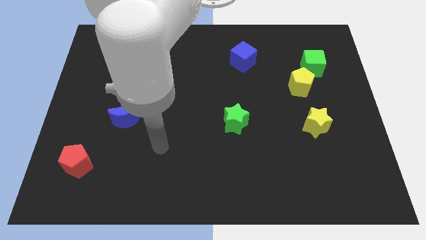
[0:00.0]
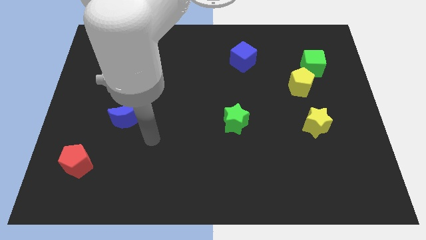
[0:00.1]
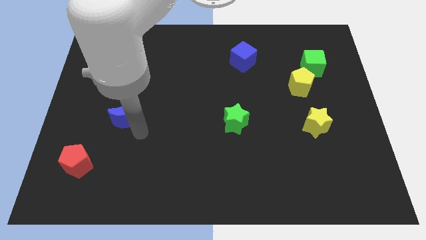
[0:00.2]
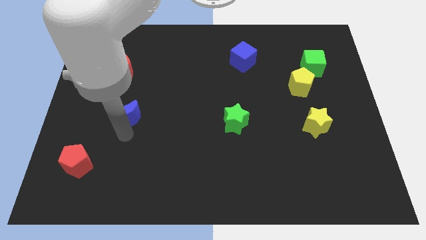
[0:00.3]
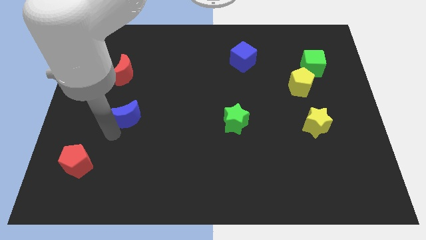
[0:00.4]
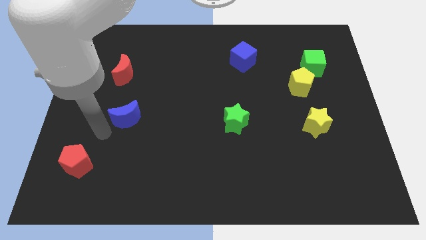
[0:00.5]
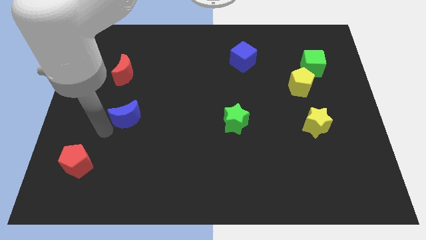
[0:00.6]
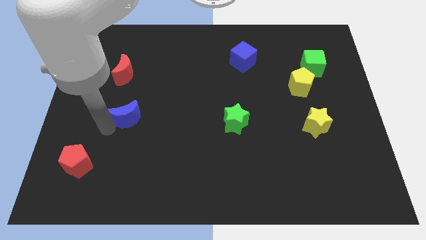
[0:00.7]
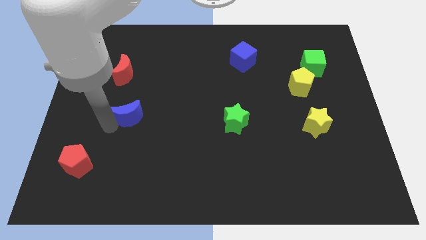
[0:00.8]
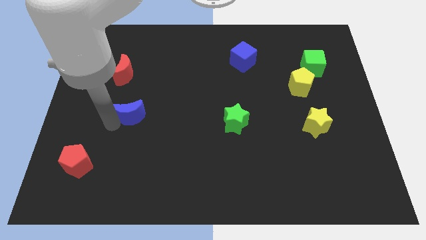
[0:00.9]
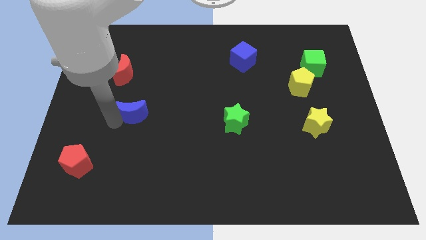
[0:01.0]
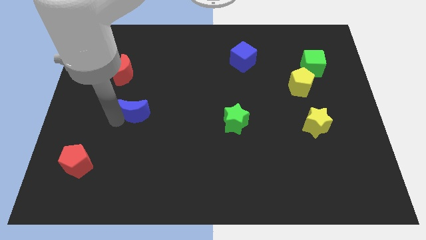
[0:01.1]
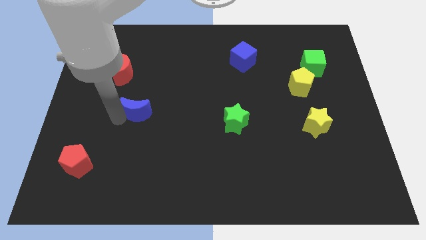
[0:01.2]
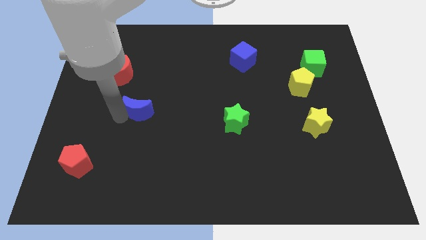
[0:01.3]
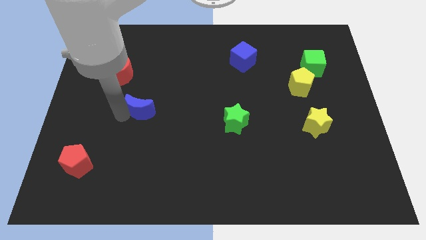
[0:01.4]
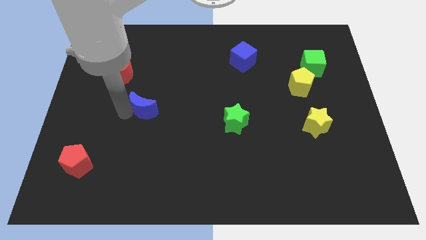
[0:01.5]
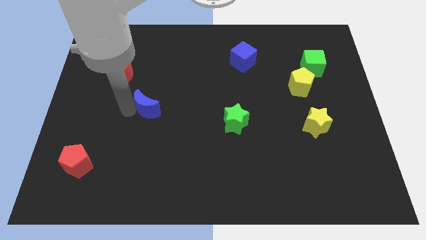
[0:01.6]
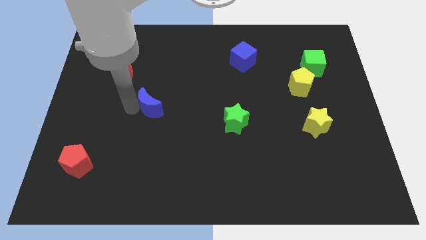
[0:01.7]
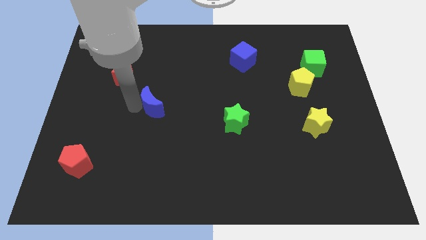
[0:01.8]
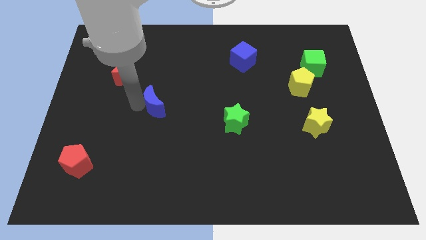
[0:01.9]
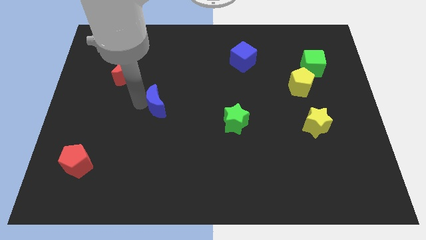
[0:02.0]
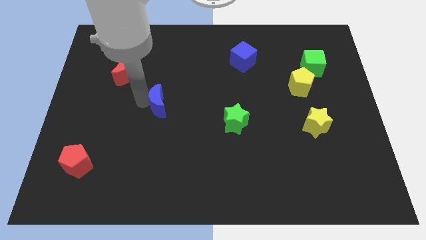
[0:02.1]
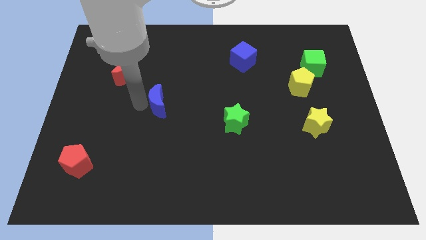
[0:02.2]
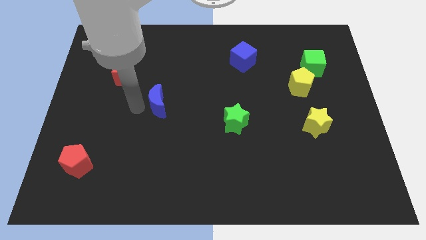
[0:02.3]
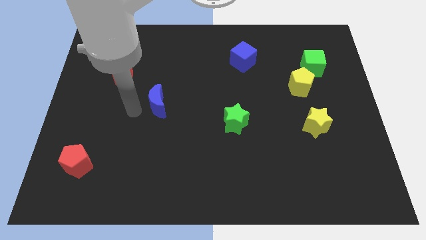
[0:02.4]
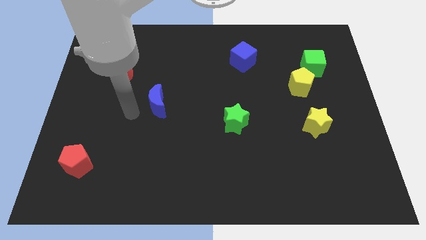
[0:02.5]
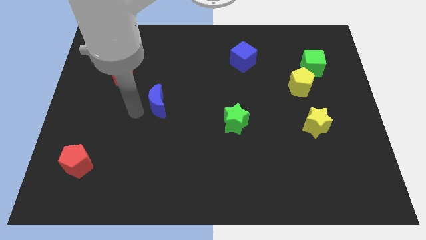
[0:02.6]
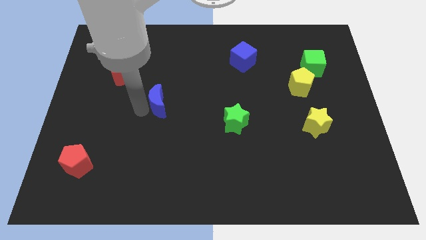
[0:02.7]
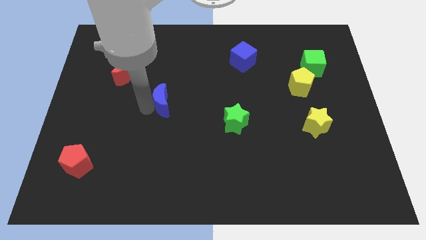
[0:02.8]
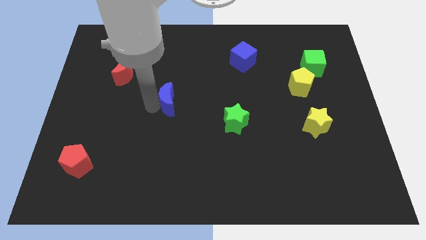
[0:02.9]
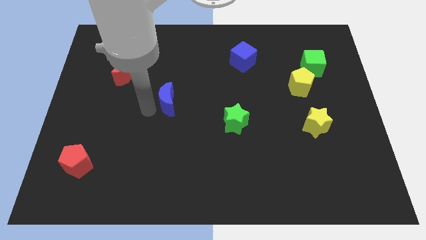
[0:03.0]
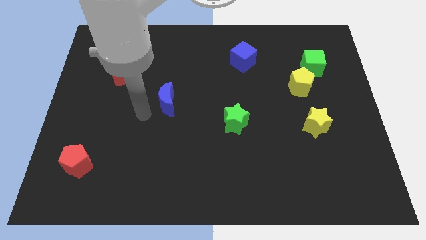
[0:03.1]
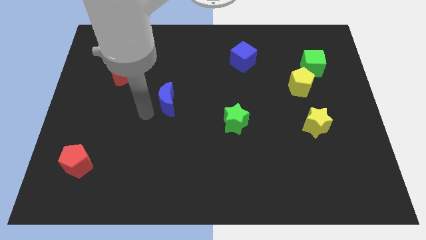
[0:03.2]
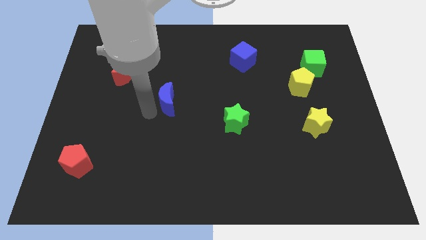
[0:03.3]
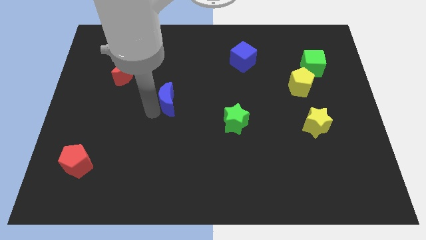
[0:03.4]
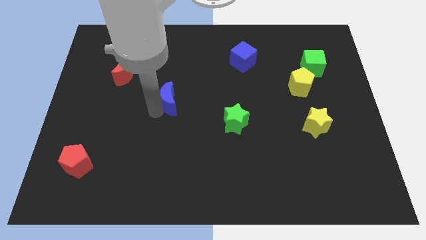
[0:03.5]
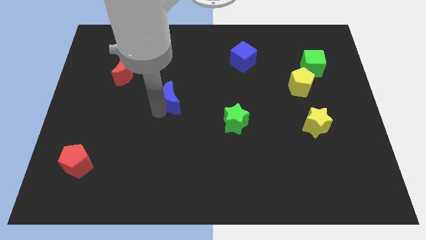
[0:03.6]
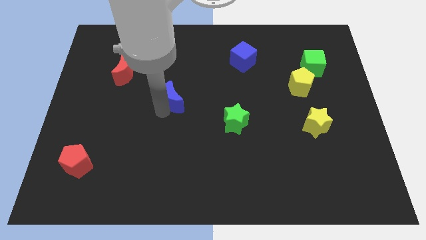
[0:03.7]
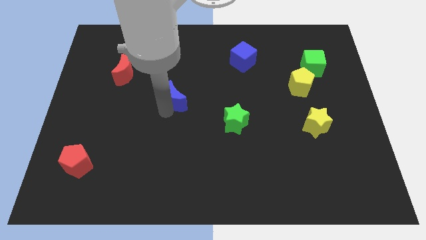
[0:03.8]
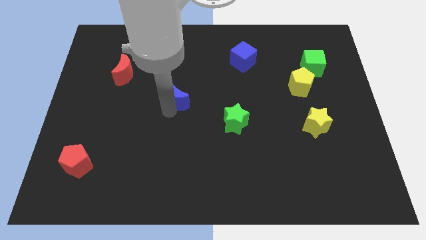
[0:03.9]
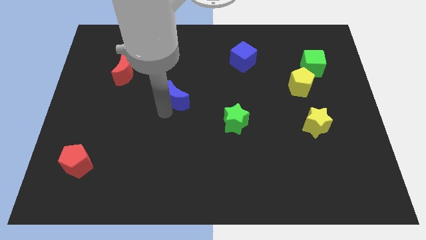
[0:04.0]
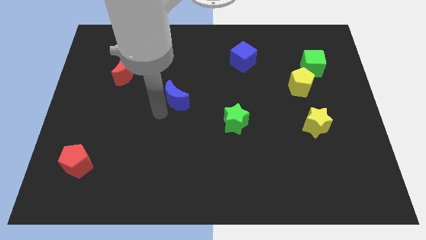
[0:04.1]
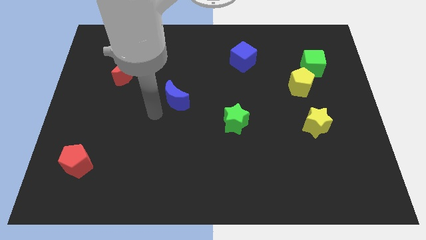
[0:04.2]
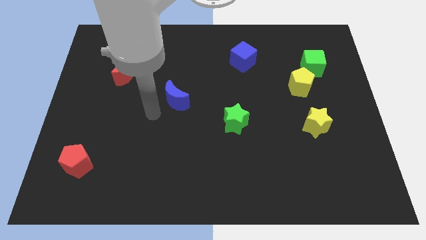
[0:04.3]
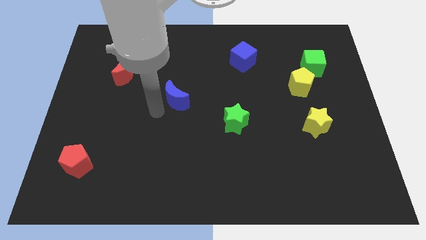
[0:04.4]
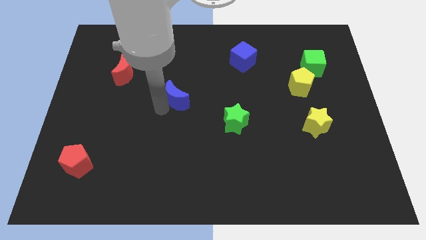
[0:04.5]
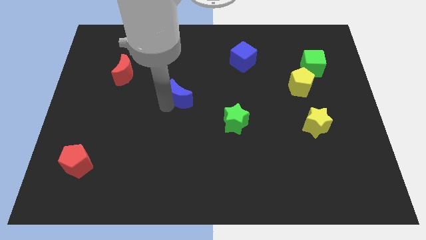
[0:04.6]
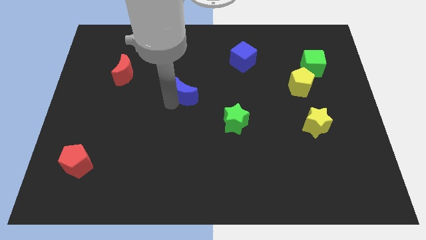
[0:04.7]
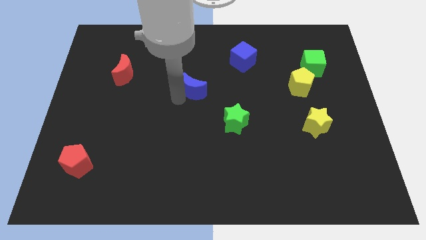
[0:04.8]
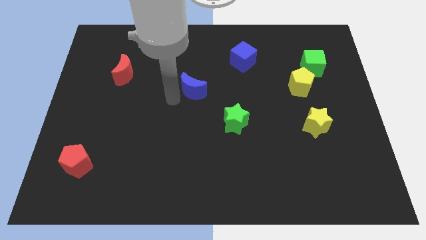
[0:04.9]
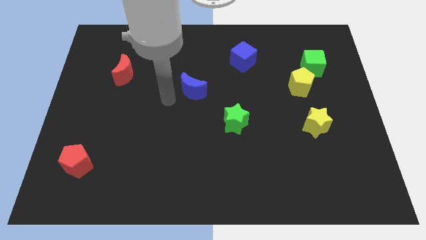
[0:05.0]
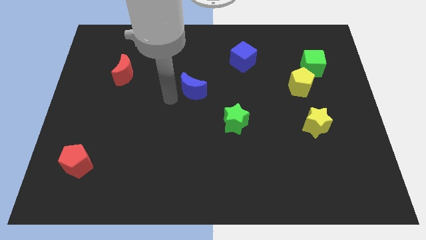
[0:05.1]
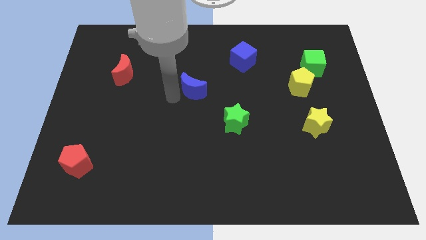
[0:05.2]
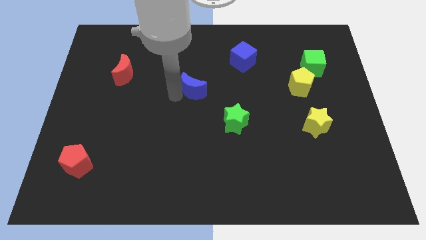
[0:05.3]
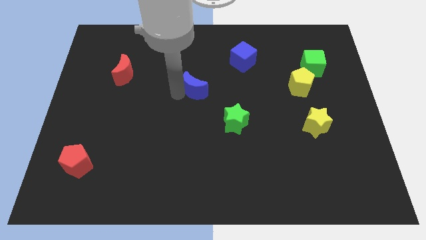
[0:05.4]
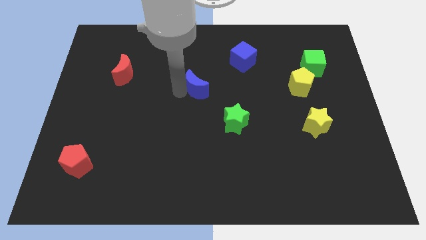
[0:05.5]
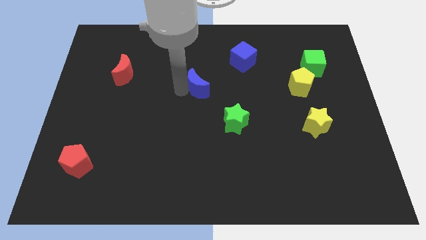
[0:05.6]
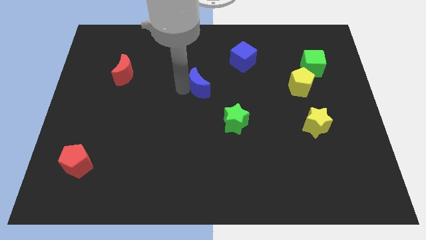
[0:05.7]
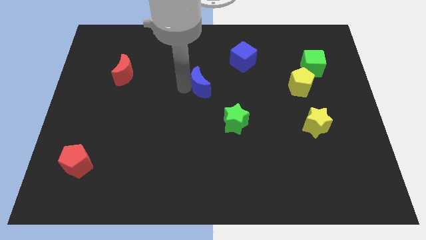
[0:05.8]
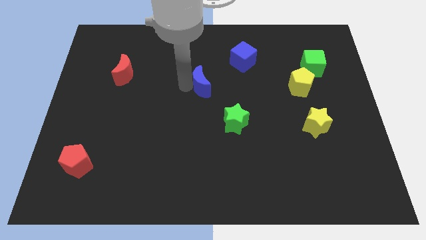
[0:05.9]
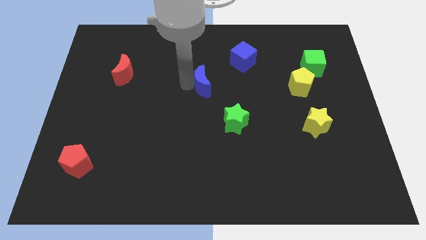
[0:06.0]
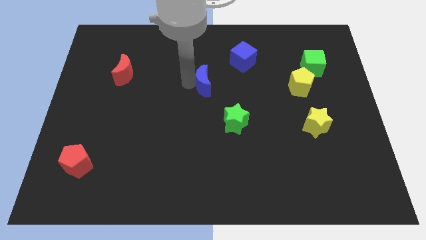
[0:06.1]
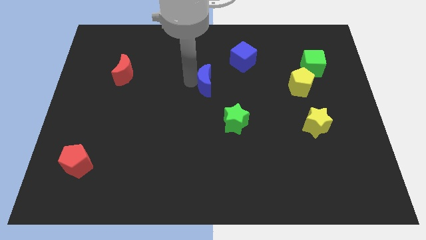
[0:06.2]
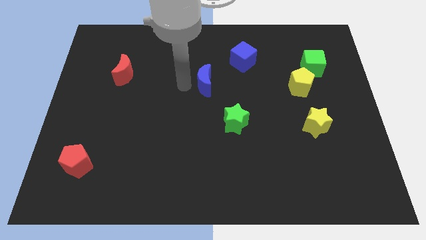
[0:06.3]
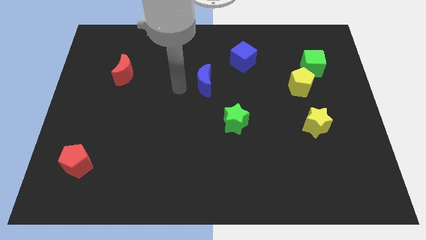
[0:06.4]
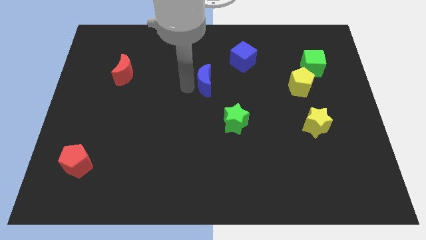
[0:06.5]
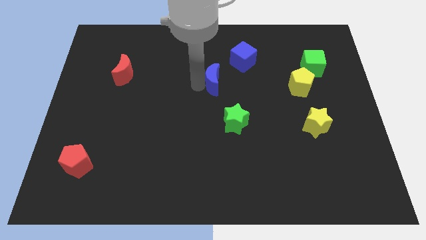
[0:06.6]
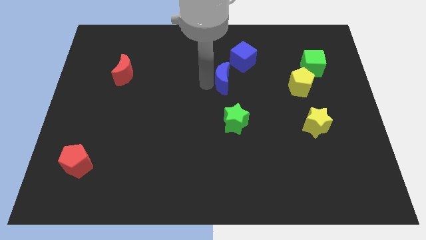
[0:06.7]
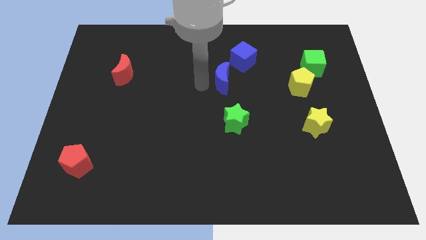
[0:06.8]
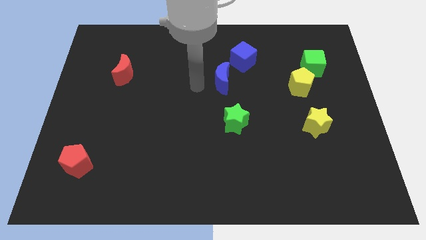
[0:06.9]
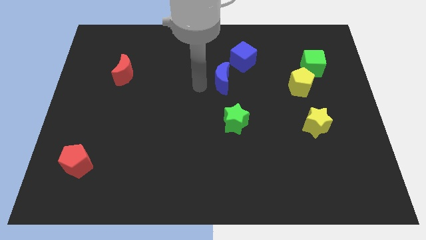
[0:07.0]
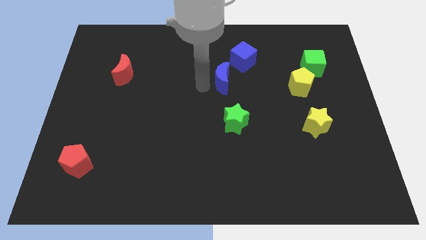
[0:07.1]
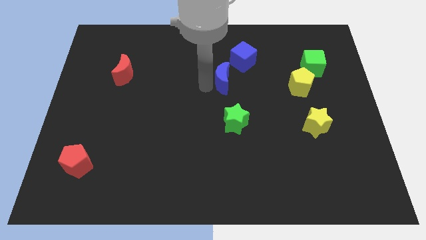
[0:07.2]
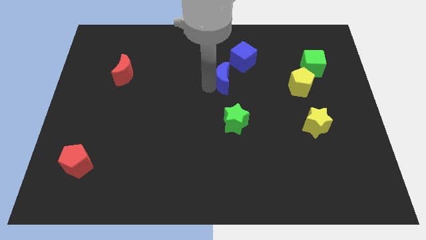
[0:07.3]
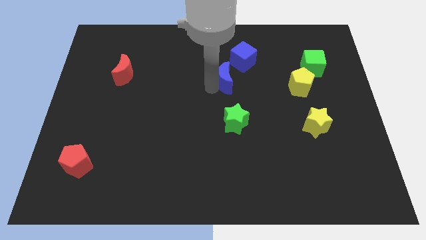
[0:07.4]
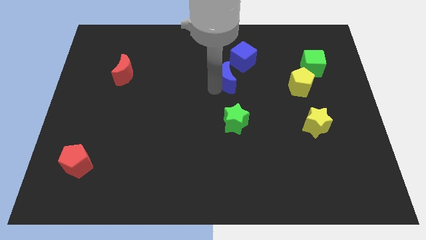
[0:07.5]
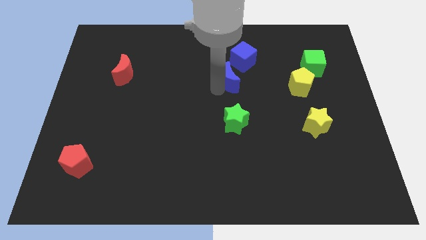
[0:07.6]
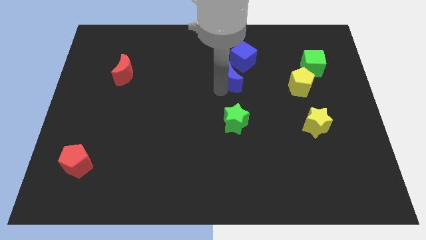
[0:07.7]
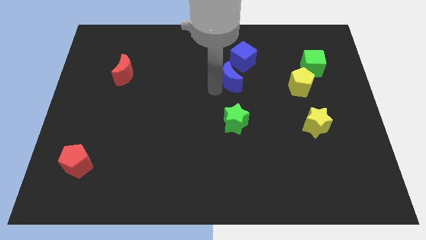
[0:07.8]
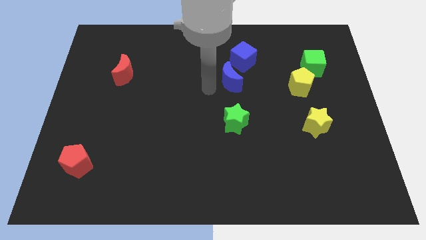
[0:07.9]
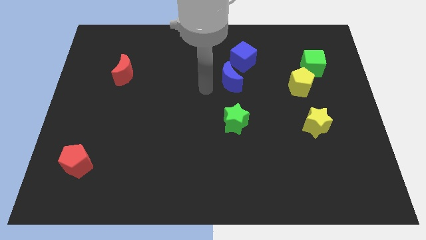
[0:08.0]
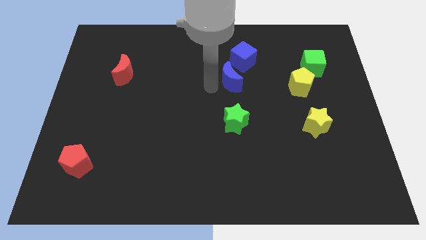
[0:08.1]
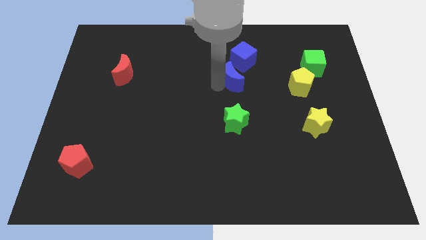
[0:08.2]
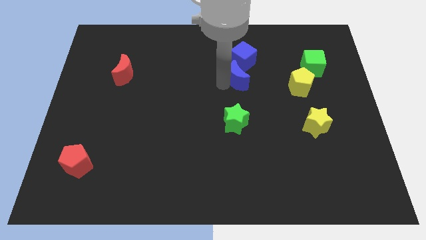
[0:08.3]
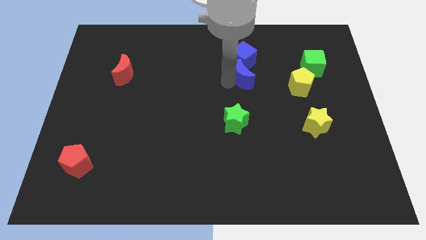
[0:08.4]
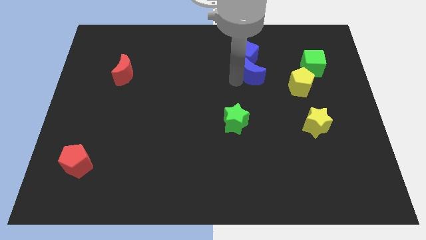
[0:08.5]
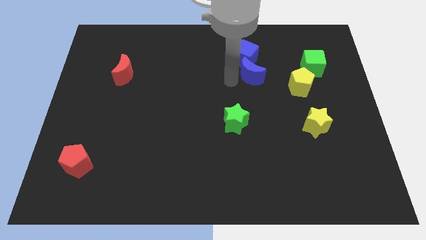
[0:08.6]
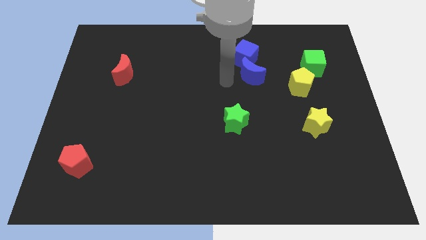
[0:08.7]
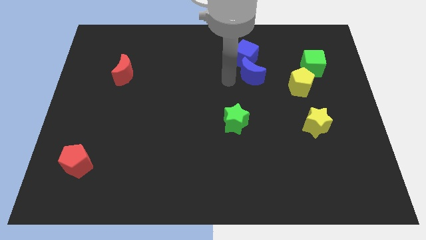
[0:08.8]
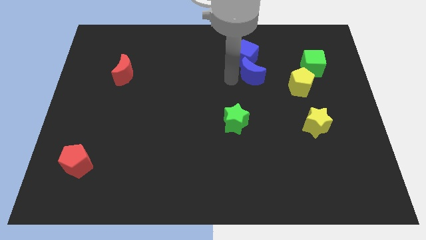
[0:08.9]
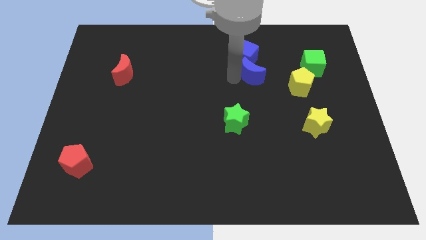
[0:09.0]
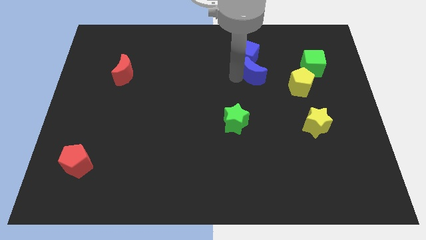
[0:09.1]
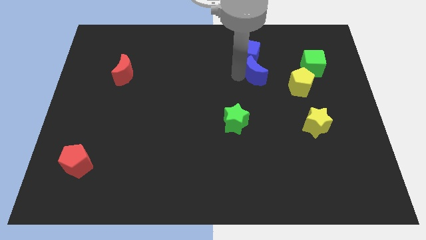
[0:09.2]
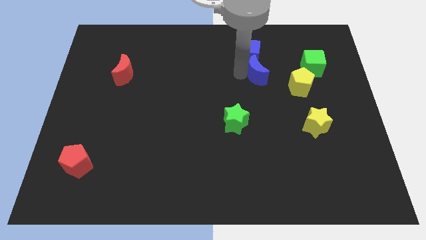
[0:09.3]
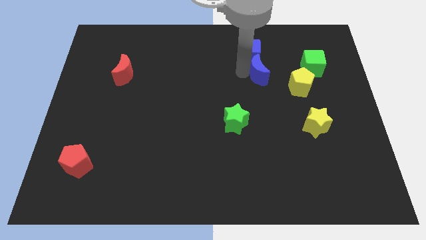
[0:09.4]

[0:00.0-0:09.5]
put the blue moon diagonally up and to the left of the yellow pentagon
